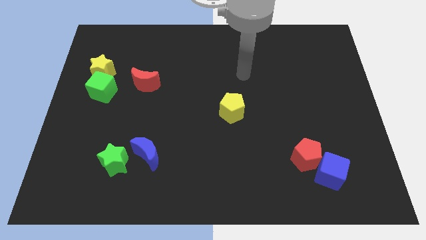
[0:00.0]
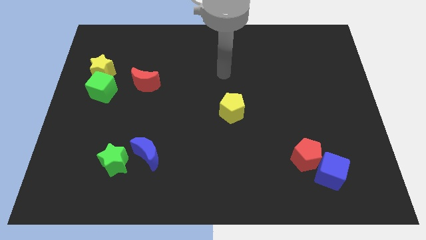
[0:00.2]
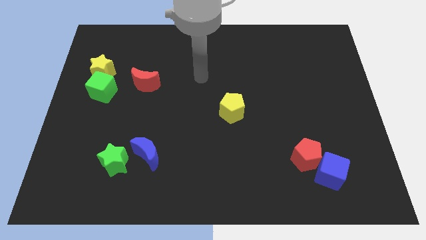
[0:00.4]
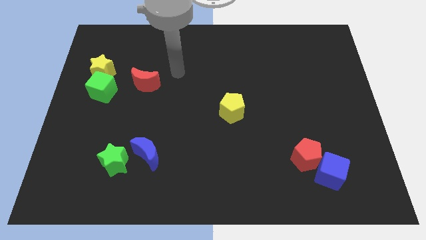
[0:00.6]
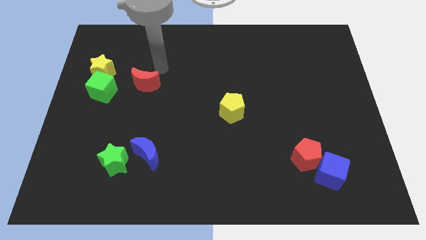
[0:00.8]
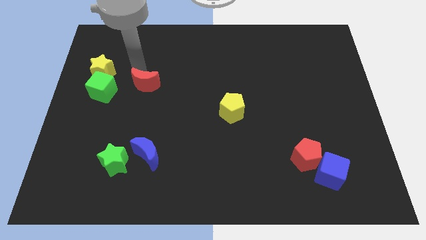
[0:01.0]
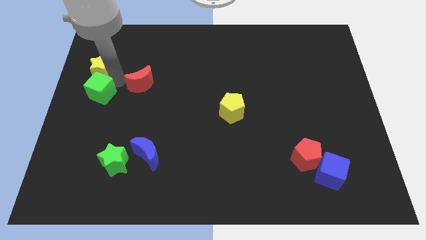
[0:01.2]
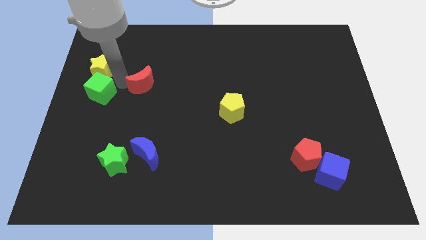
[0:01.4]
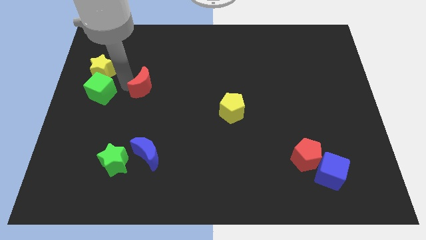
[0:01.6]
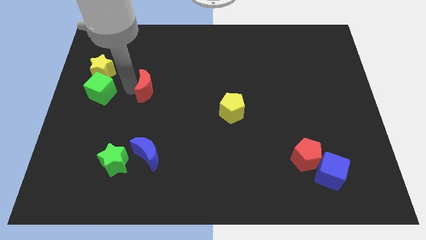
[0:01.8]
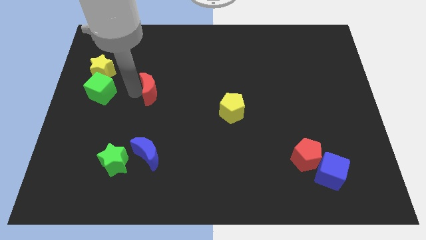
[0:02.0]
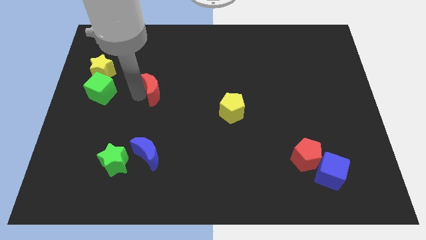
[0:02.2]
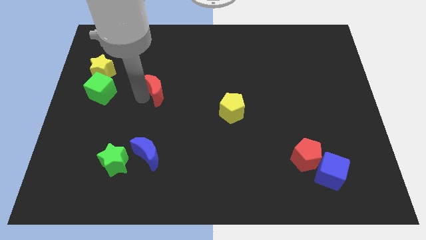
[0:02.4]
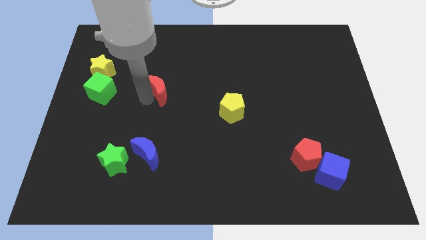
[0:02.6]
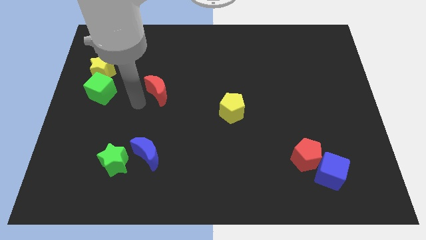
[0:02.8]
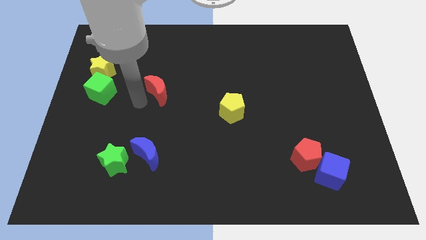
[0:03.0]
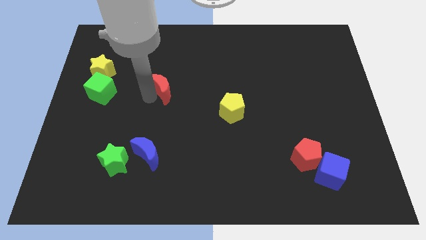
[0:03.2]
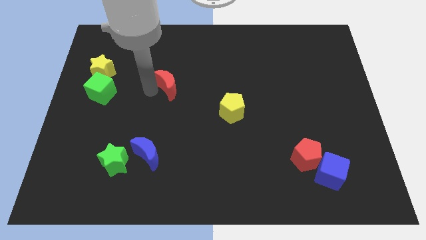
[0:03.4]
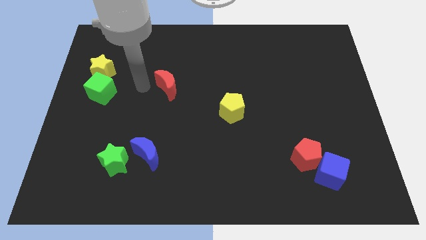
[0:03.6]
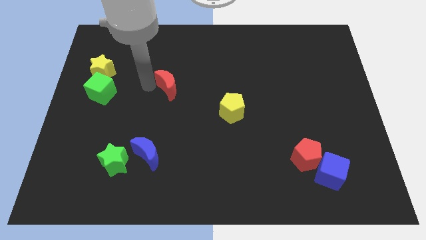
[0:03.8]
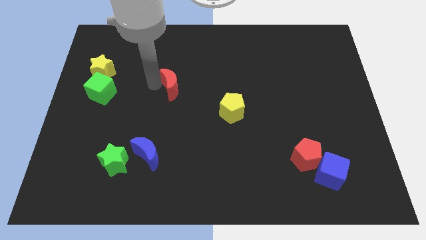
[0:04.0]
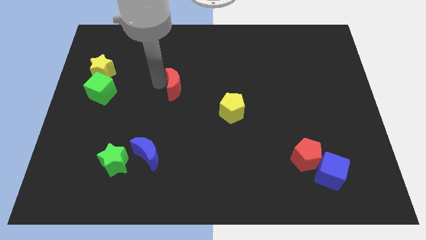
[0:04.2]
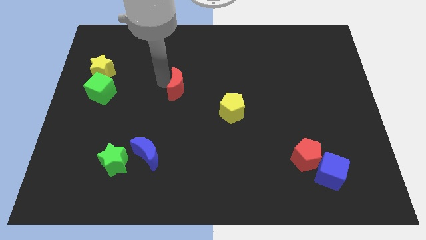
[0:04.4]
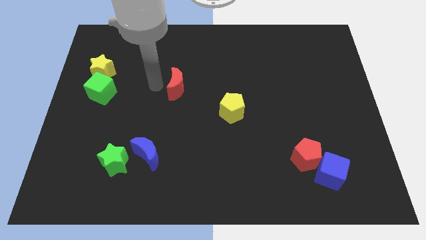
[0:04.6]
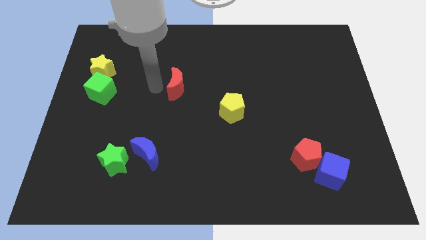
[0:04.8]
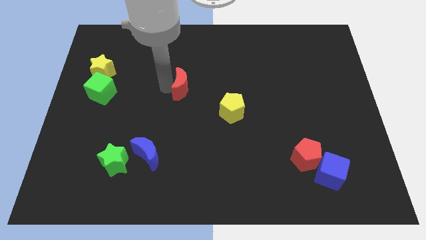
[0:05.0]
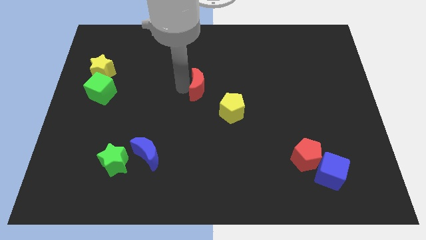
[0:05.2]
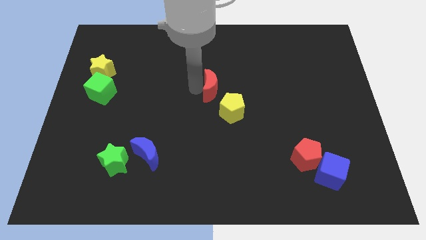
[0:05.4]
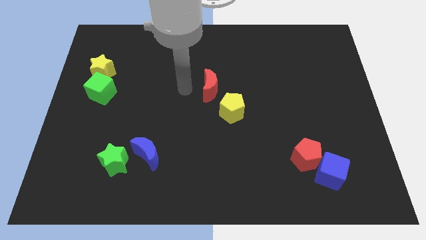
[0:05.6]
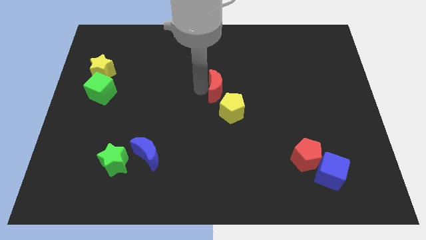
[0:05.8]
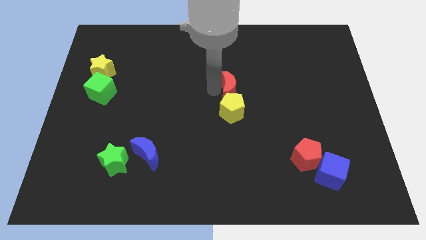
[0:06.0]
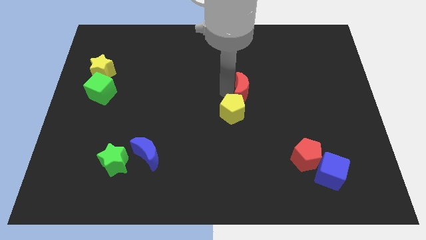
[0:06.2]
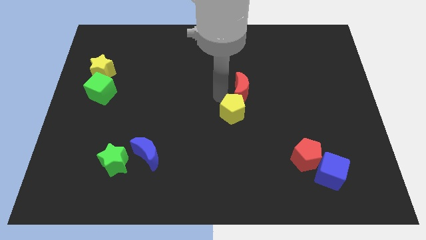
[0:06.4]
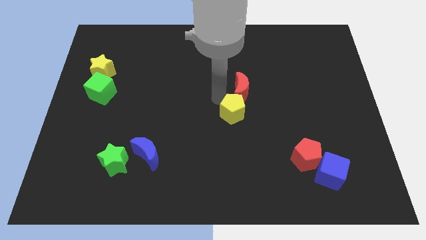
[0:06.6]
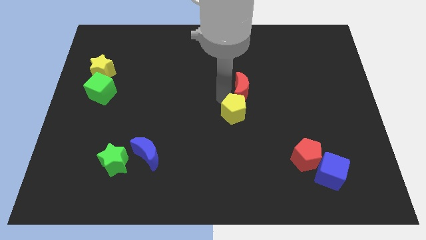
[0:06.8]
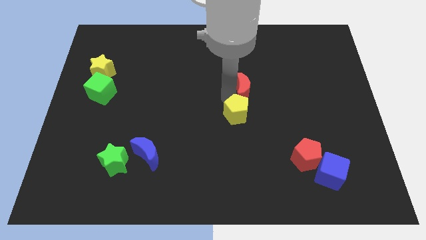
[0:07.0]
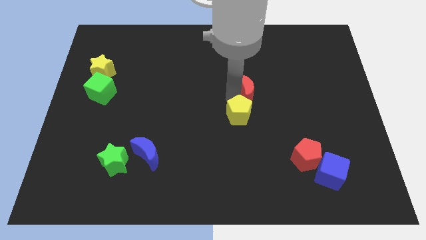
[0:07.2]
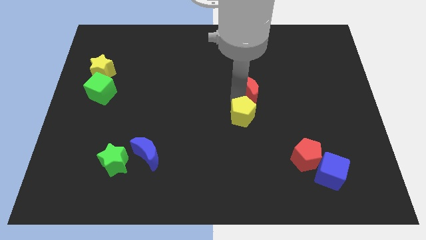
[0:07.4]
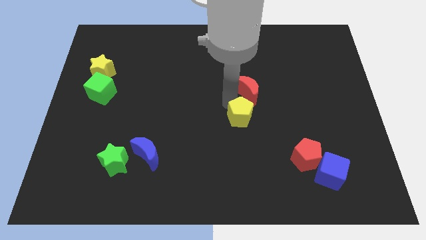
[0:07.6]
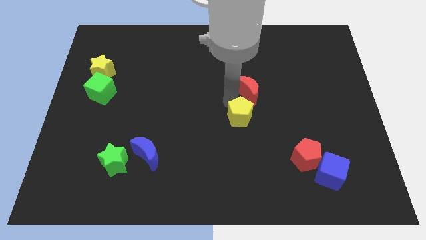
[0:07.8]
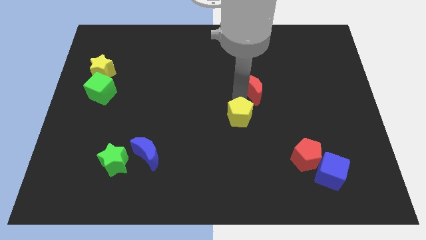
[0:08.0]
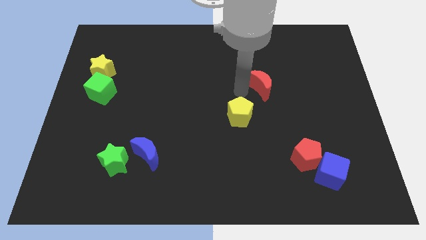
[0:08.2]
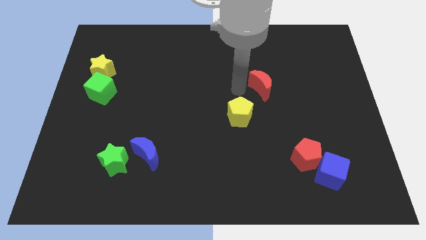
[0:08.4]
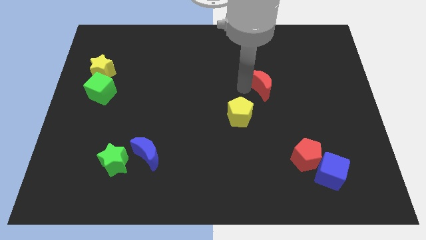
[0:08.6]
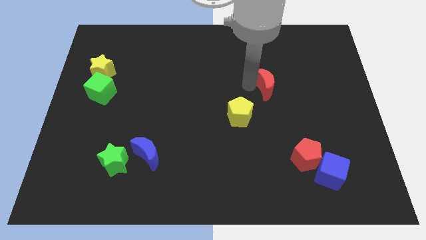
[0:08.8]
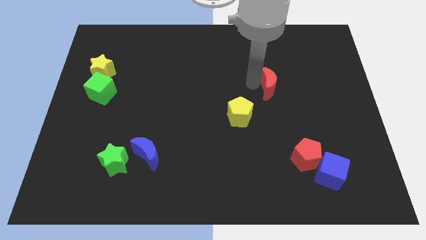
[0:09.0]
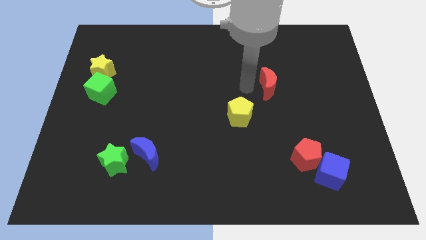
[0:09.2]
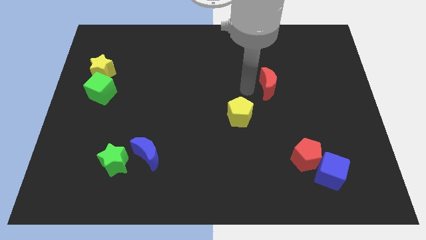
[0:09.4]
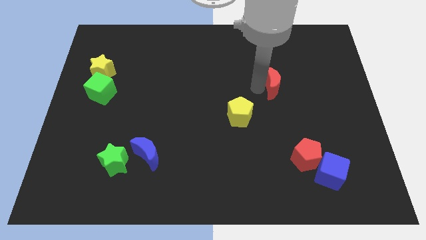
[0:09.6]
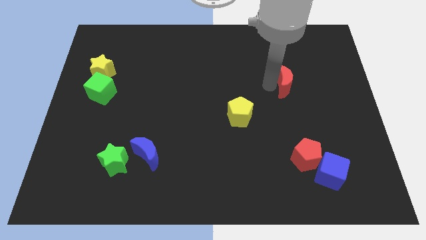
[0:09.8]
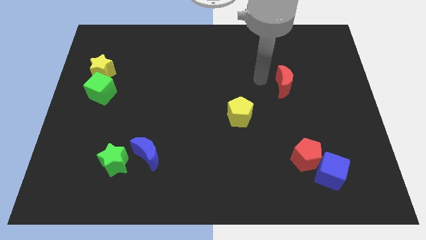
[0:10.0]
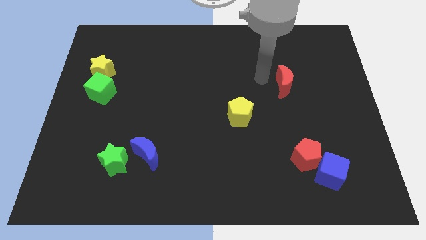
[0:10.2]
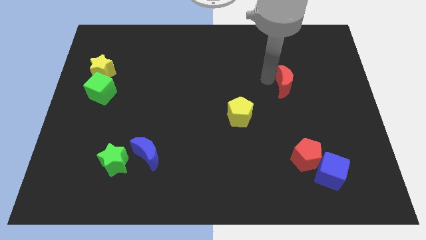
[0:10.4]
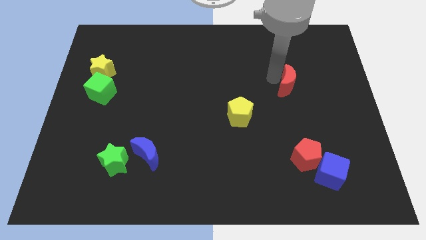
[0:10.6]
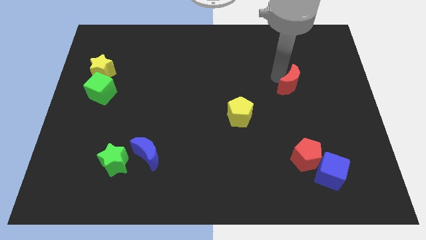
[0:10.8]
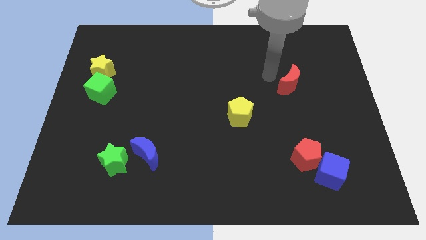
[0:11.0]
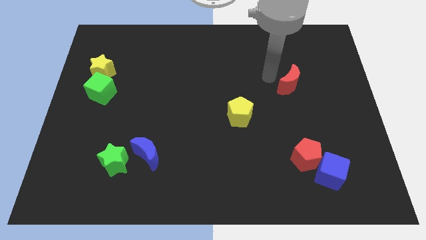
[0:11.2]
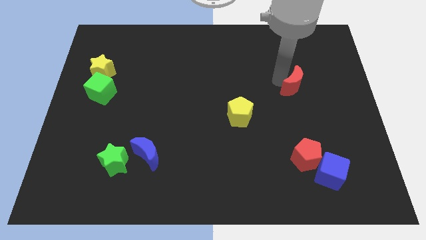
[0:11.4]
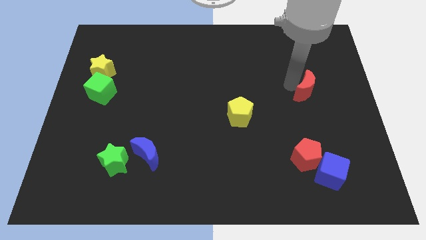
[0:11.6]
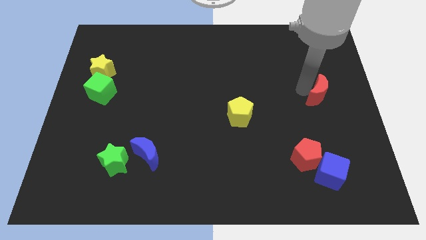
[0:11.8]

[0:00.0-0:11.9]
put the red moon to the right side
